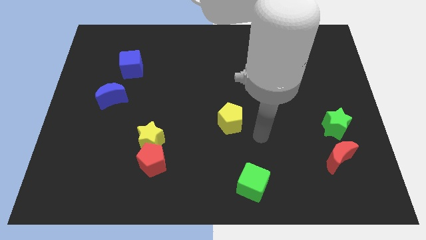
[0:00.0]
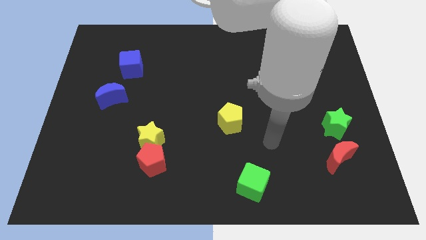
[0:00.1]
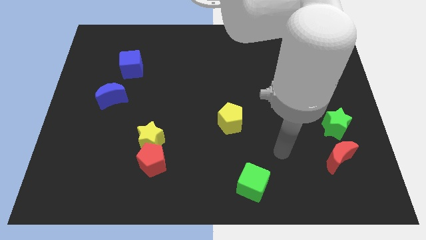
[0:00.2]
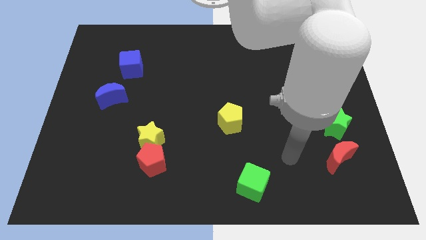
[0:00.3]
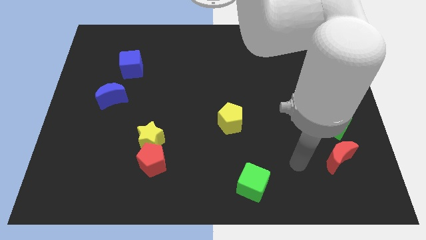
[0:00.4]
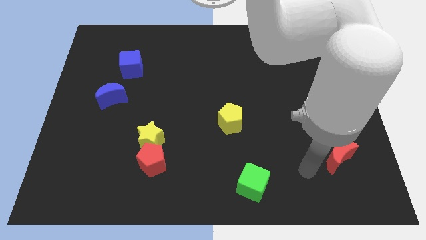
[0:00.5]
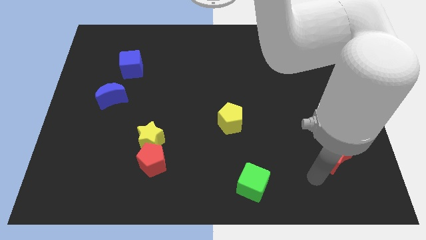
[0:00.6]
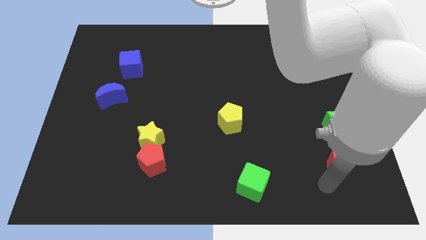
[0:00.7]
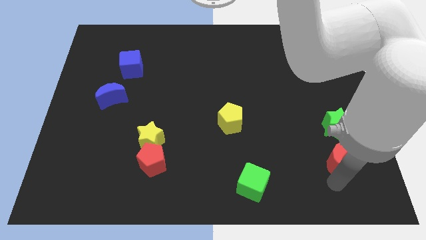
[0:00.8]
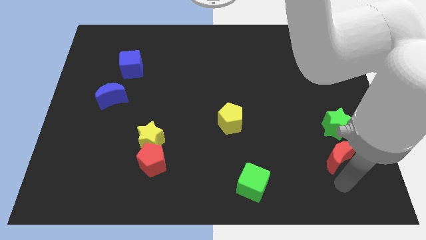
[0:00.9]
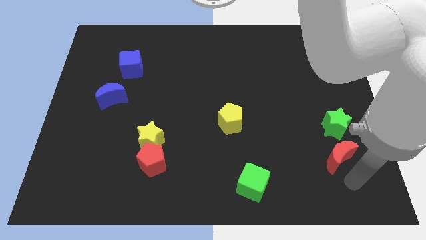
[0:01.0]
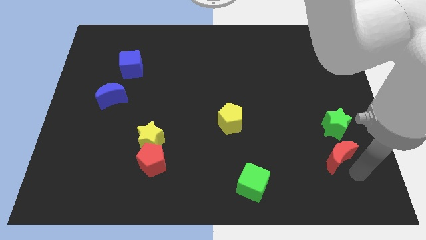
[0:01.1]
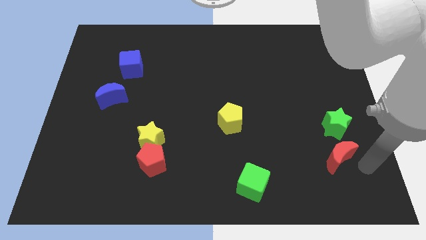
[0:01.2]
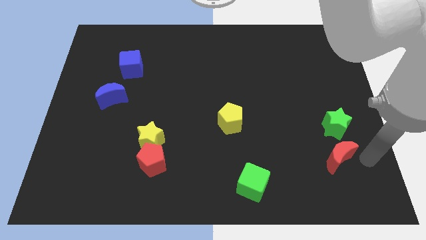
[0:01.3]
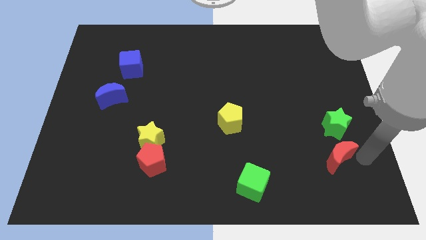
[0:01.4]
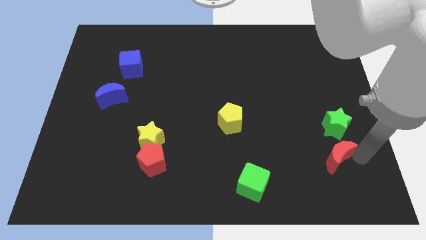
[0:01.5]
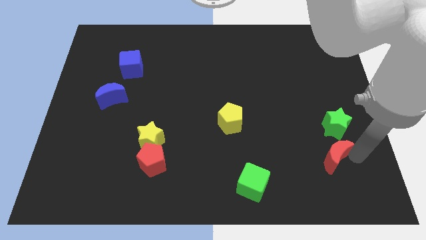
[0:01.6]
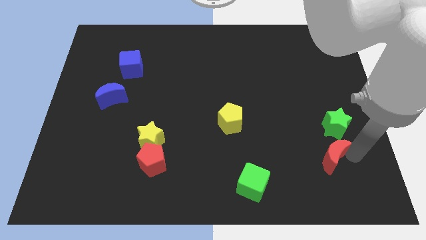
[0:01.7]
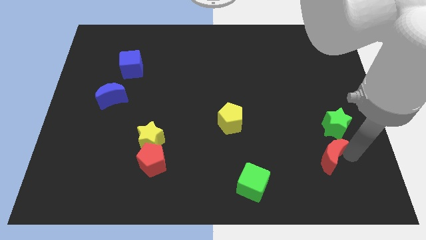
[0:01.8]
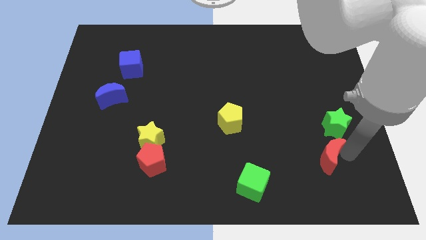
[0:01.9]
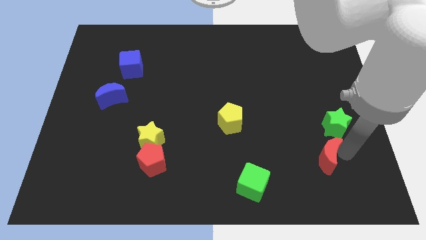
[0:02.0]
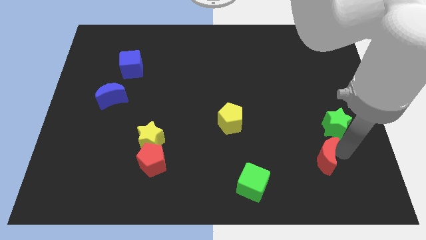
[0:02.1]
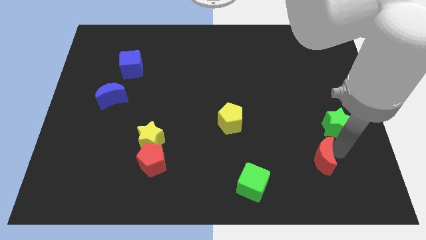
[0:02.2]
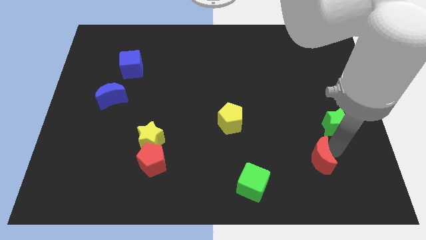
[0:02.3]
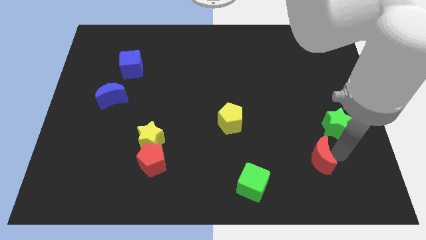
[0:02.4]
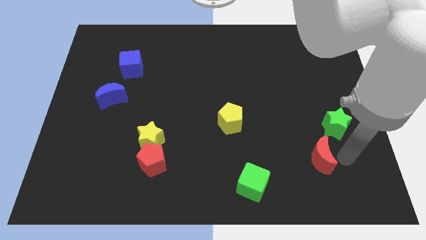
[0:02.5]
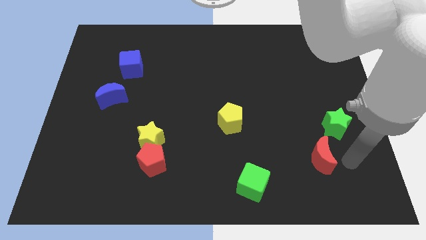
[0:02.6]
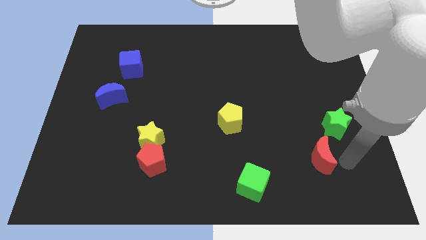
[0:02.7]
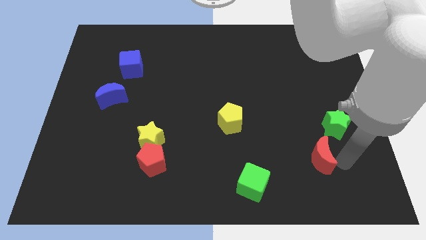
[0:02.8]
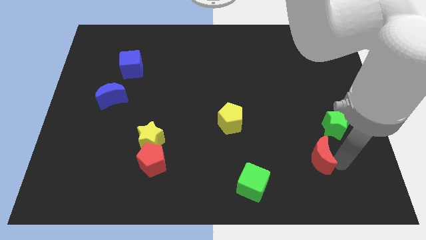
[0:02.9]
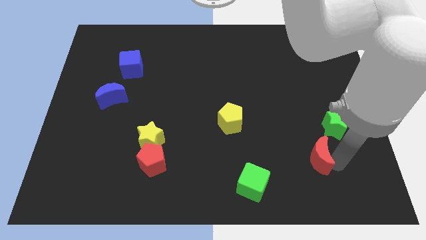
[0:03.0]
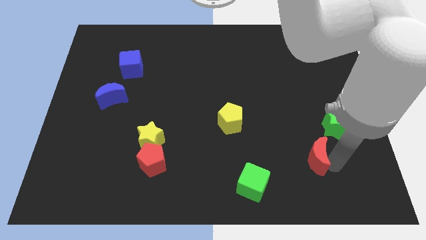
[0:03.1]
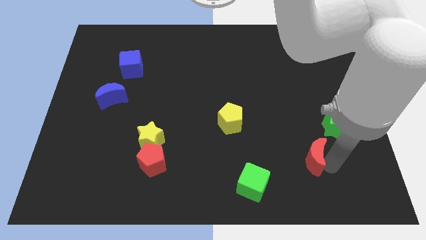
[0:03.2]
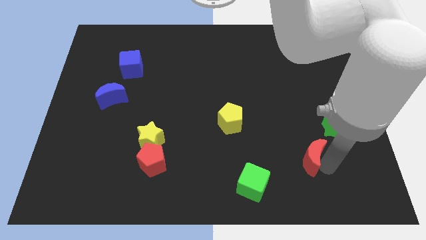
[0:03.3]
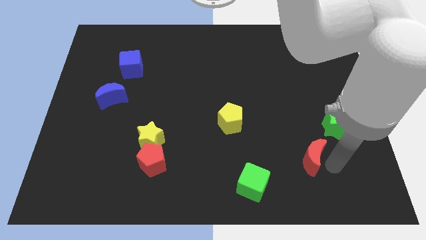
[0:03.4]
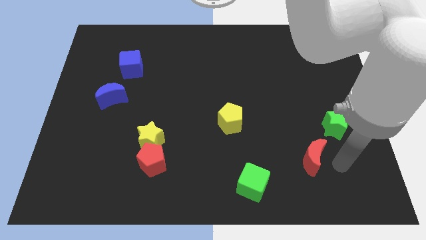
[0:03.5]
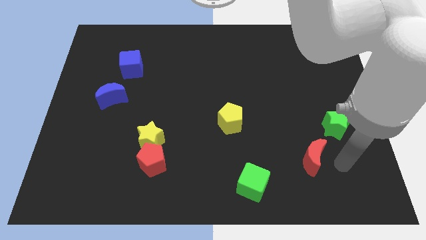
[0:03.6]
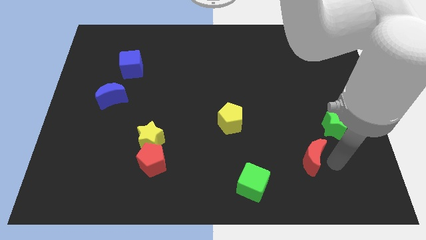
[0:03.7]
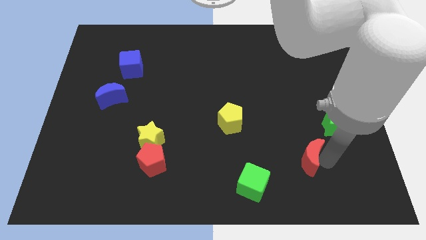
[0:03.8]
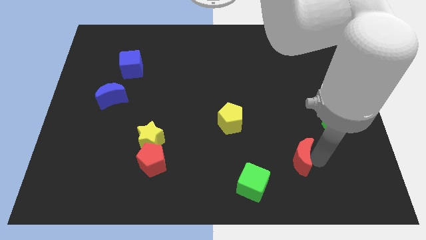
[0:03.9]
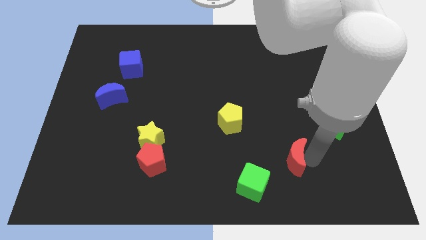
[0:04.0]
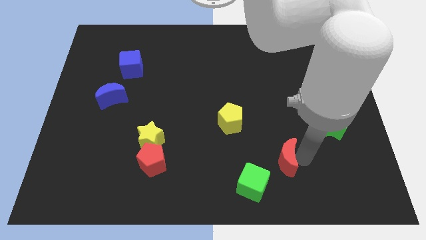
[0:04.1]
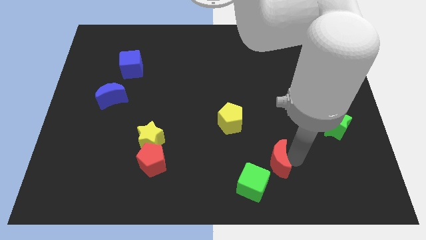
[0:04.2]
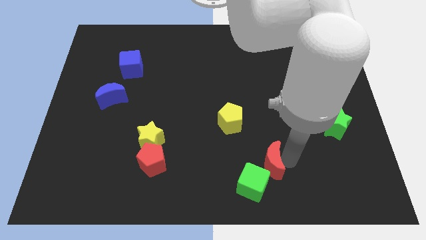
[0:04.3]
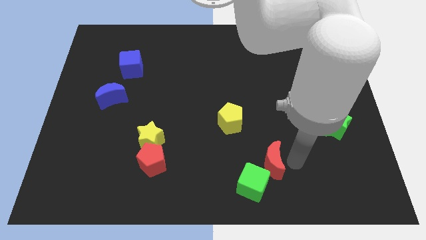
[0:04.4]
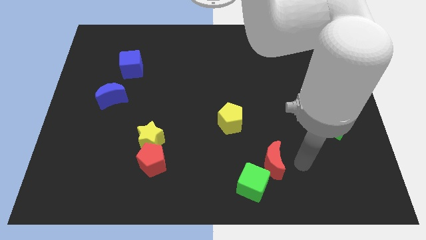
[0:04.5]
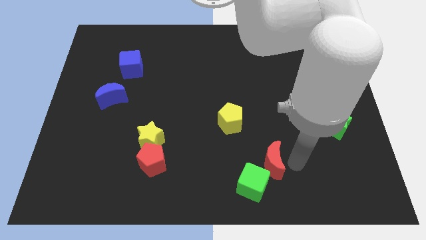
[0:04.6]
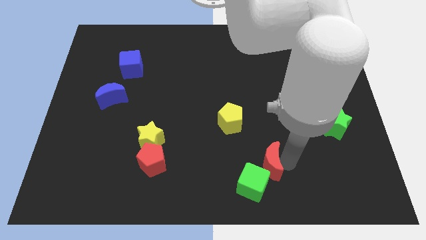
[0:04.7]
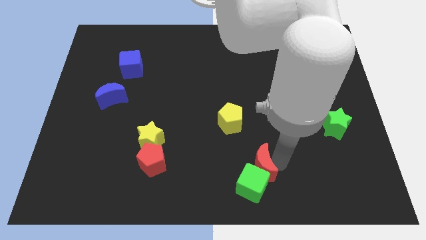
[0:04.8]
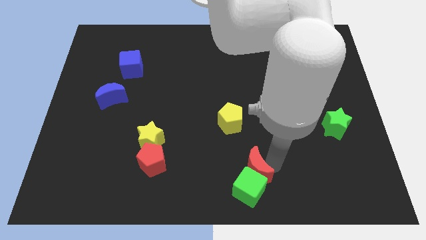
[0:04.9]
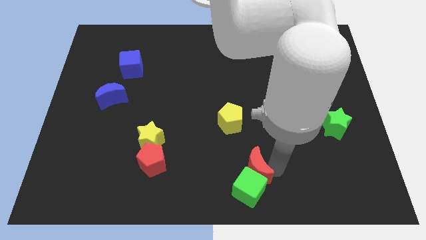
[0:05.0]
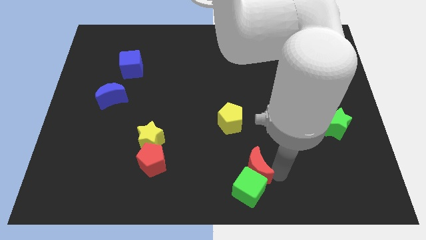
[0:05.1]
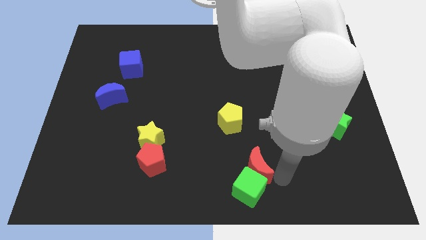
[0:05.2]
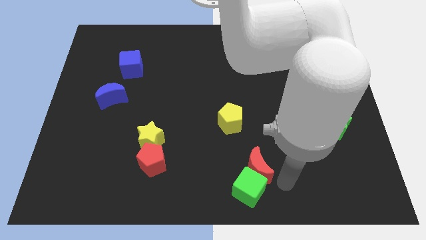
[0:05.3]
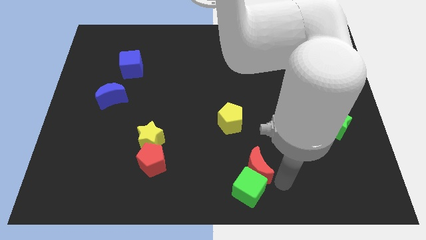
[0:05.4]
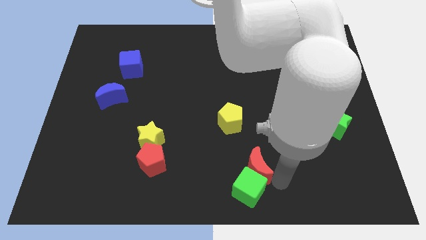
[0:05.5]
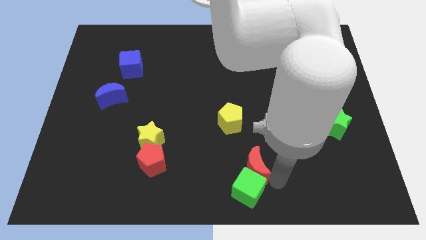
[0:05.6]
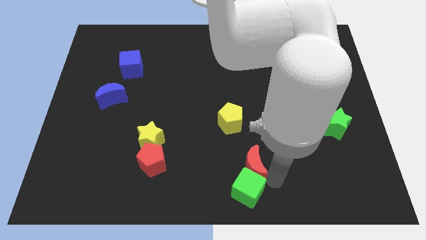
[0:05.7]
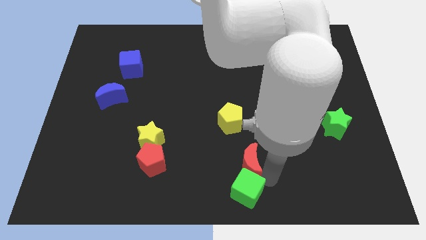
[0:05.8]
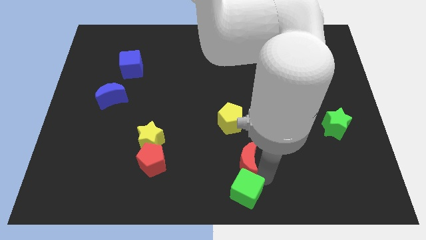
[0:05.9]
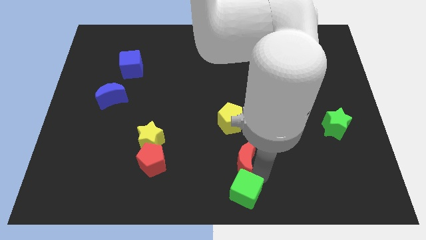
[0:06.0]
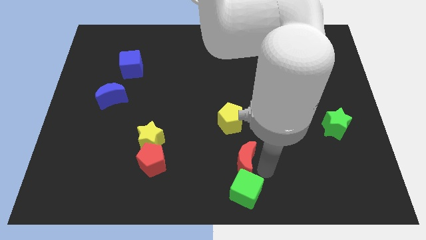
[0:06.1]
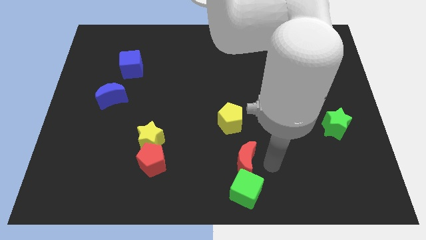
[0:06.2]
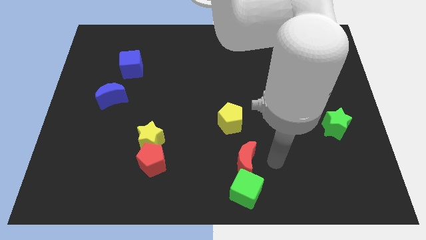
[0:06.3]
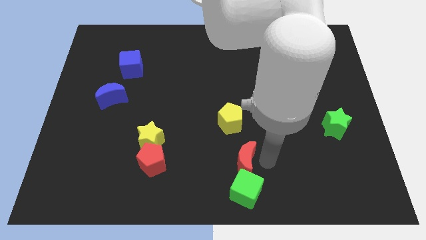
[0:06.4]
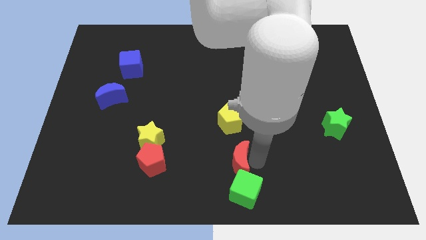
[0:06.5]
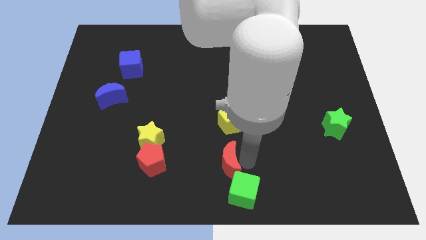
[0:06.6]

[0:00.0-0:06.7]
push the red moon right of the red pentagon

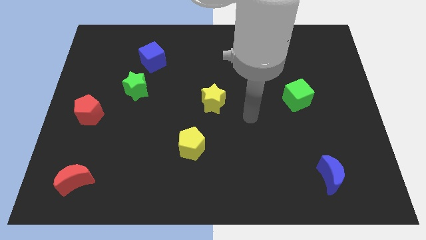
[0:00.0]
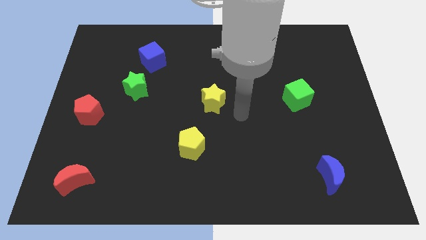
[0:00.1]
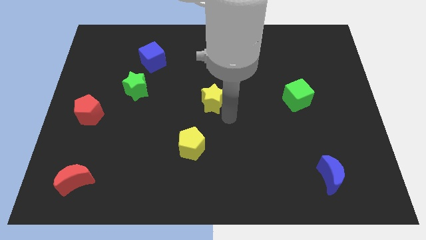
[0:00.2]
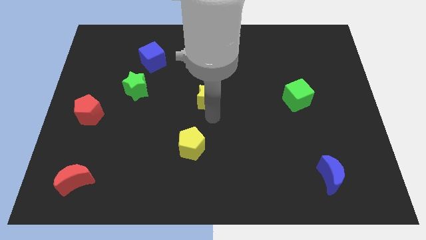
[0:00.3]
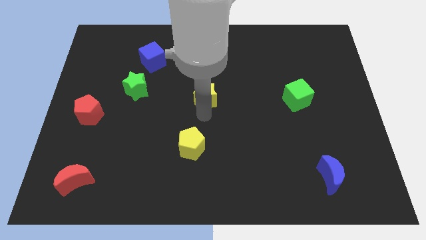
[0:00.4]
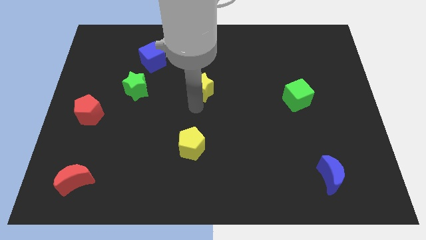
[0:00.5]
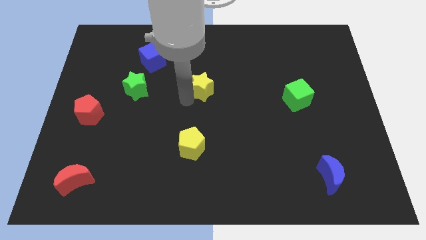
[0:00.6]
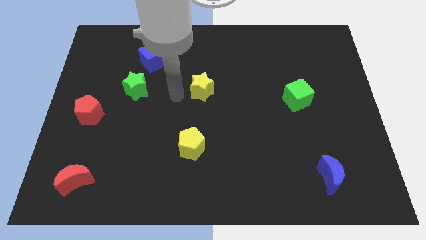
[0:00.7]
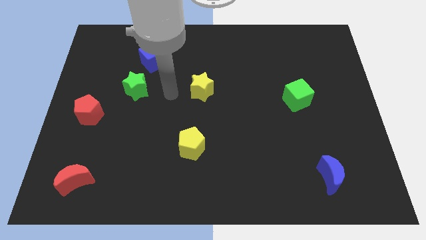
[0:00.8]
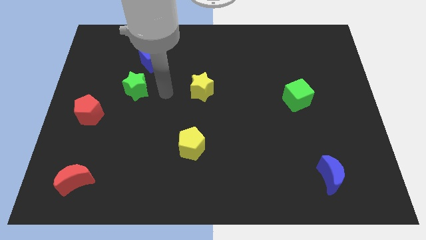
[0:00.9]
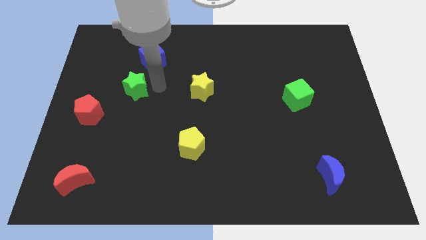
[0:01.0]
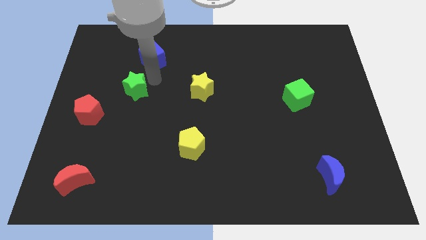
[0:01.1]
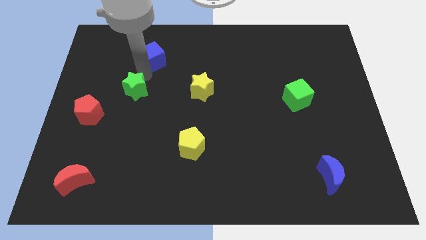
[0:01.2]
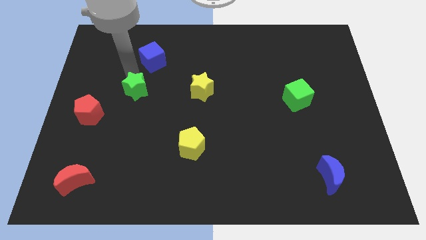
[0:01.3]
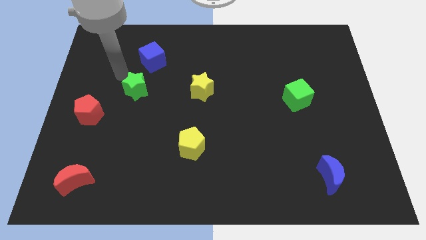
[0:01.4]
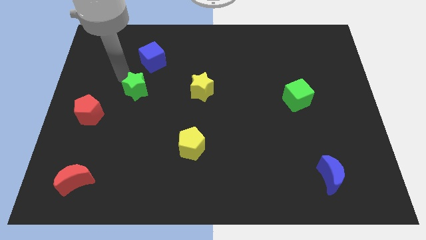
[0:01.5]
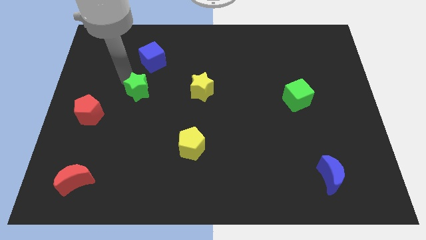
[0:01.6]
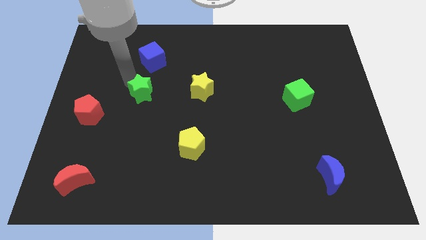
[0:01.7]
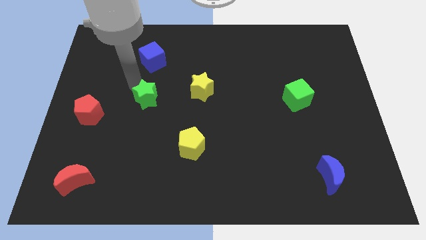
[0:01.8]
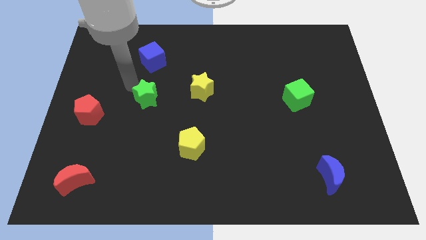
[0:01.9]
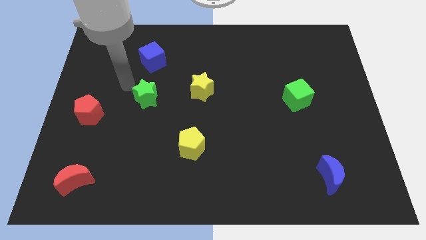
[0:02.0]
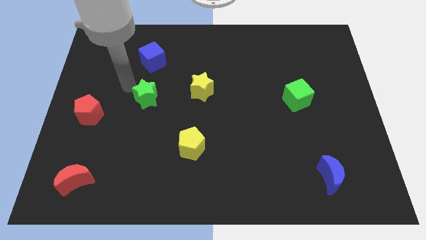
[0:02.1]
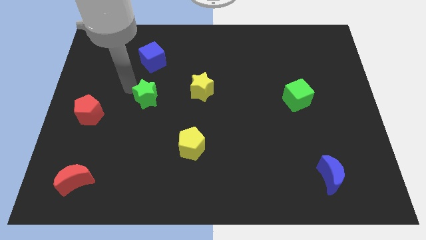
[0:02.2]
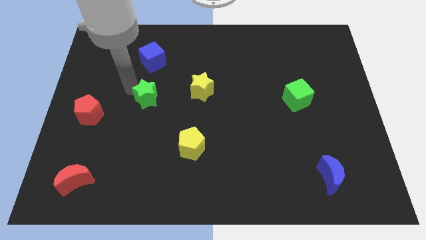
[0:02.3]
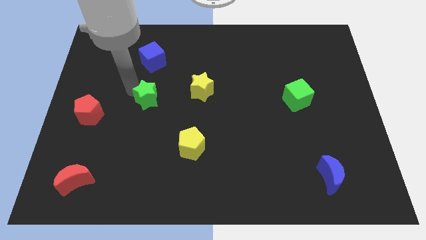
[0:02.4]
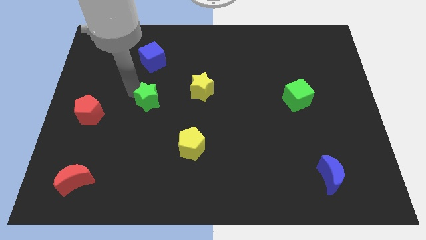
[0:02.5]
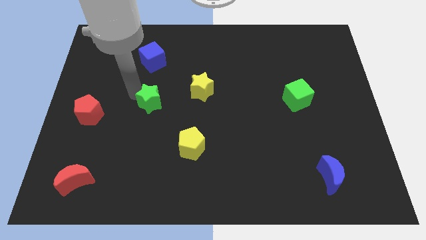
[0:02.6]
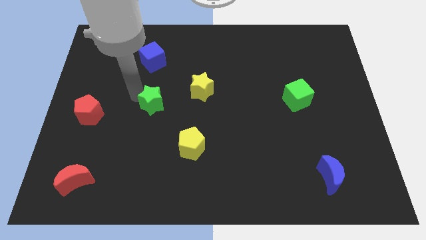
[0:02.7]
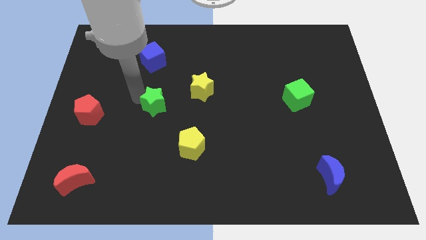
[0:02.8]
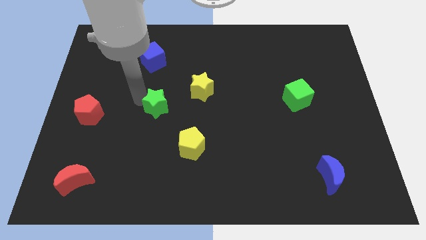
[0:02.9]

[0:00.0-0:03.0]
push the green star to the bottom left of the yellow star
